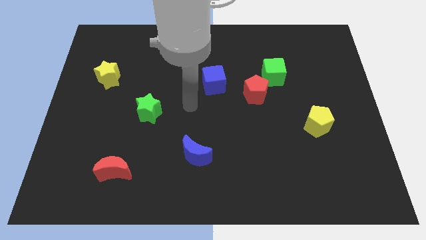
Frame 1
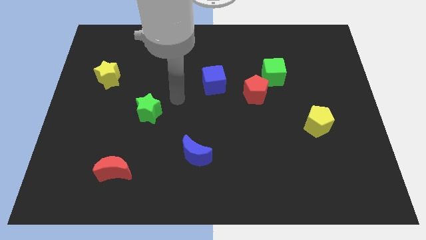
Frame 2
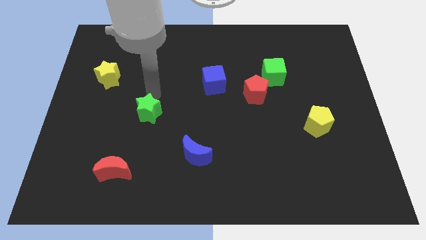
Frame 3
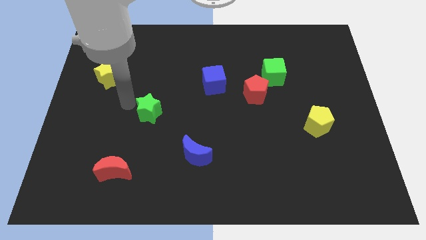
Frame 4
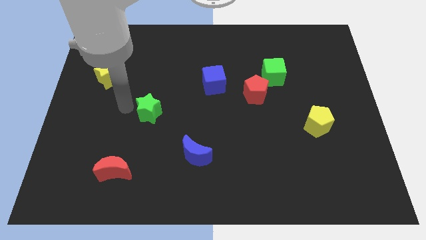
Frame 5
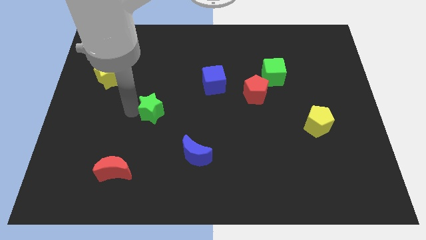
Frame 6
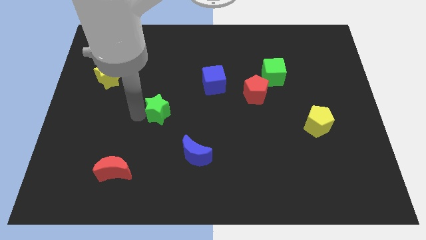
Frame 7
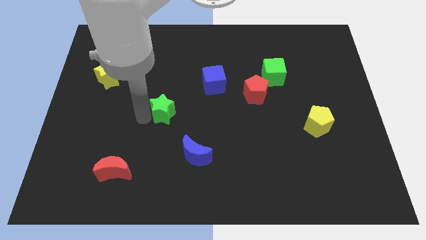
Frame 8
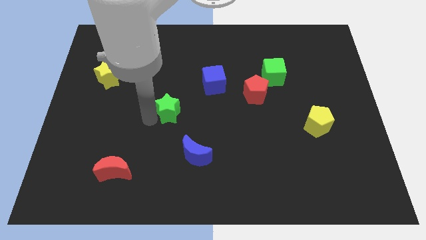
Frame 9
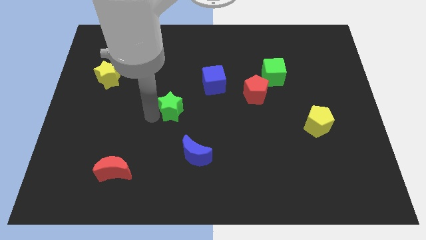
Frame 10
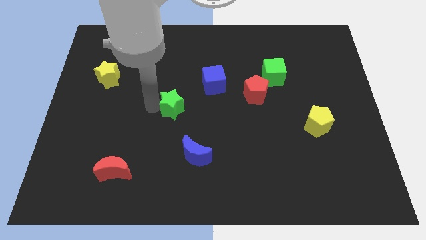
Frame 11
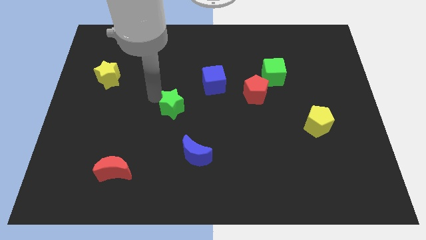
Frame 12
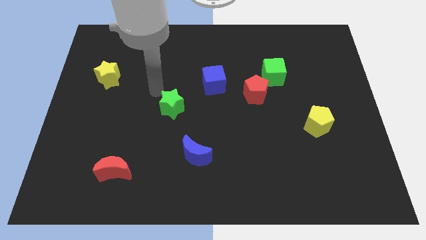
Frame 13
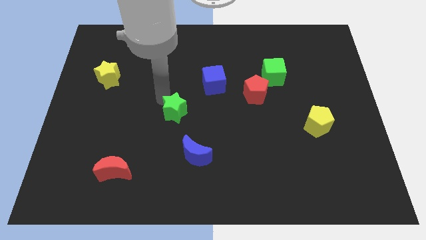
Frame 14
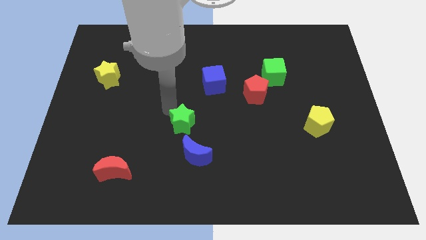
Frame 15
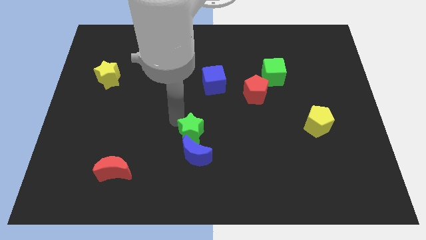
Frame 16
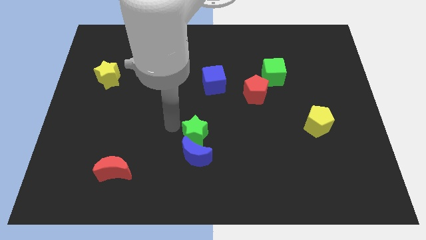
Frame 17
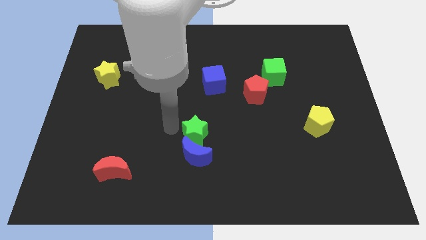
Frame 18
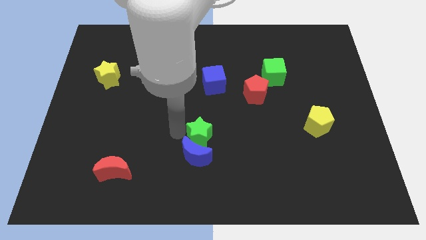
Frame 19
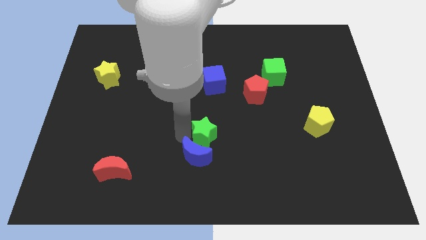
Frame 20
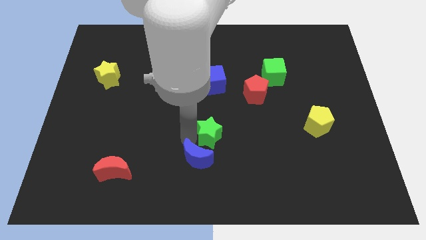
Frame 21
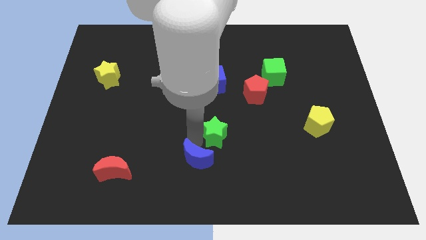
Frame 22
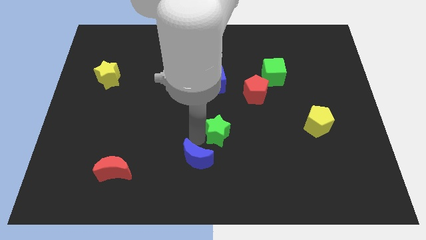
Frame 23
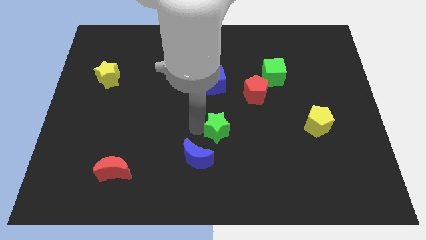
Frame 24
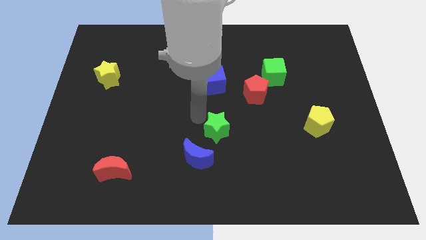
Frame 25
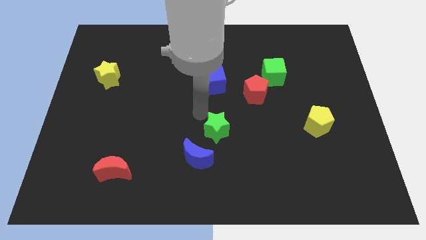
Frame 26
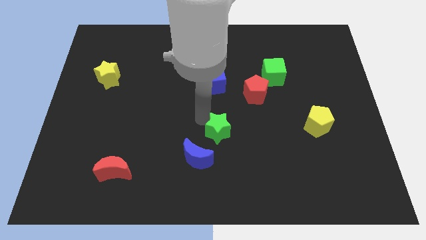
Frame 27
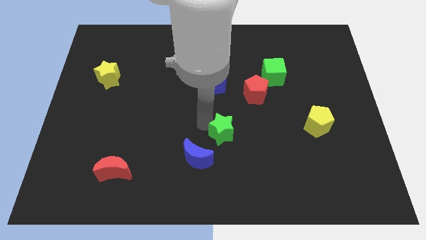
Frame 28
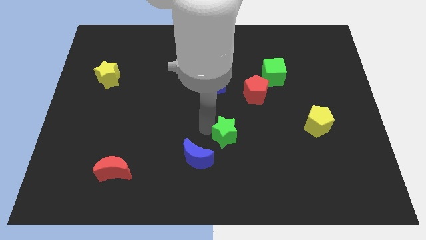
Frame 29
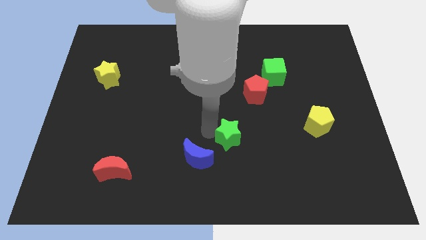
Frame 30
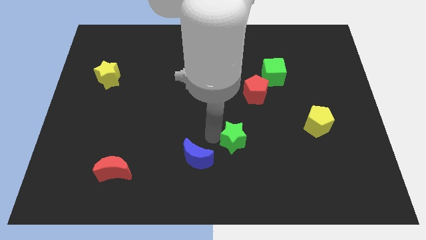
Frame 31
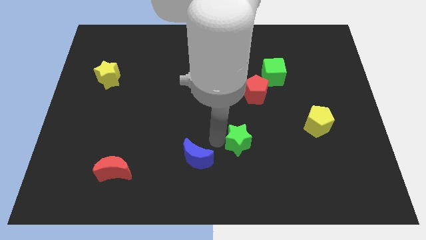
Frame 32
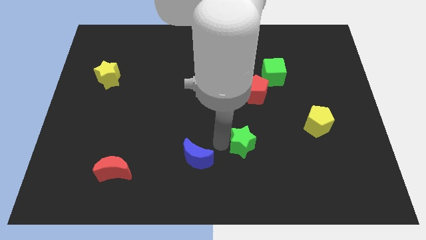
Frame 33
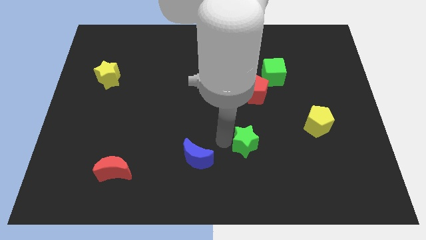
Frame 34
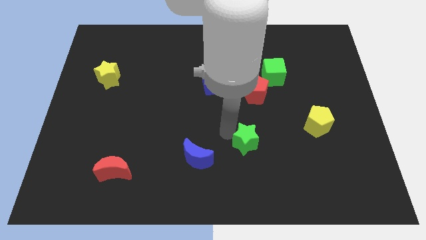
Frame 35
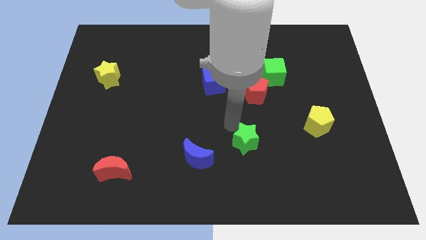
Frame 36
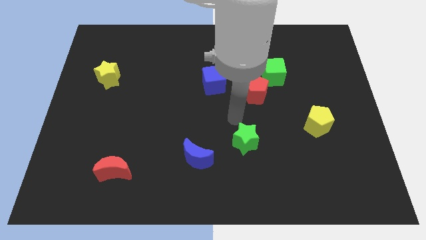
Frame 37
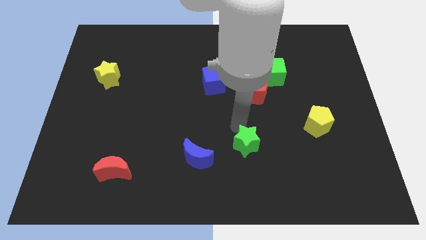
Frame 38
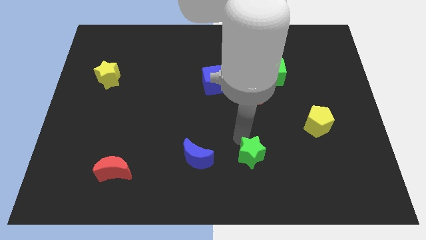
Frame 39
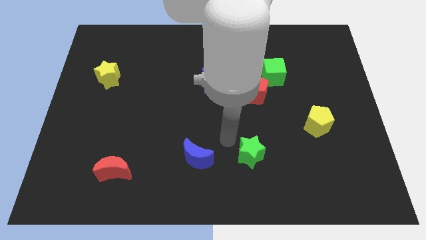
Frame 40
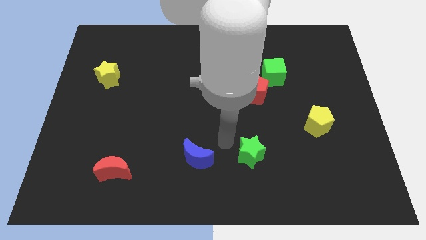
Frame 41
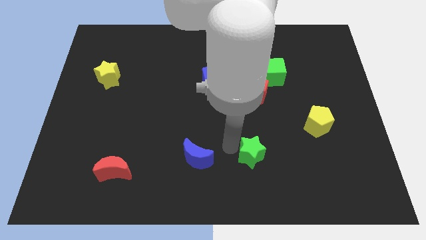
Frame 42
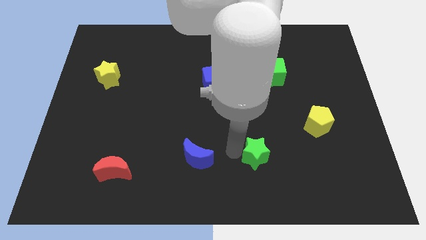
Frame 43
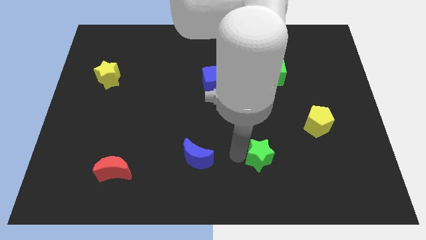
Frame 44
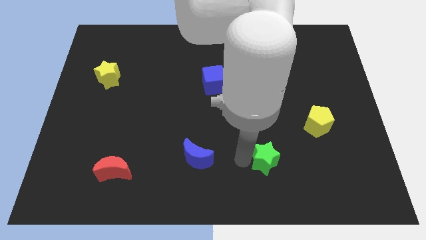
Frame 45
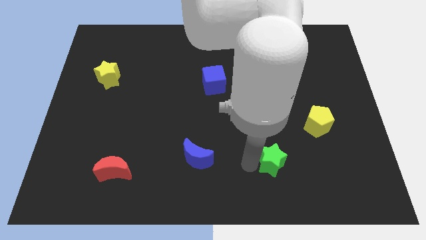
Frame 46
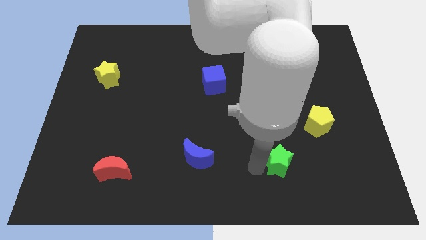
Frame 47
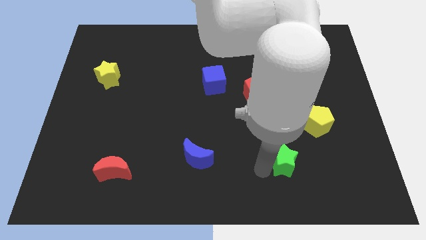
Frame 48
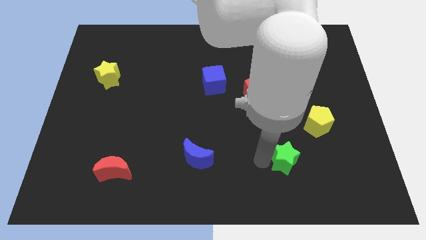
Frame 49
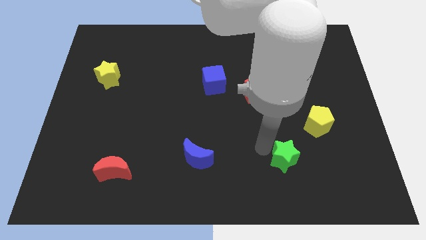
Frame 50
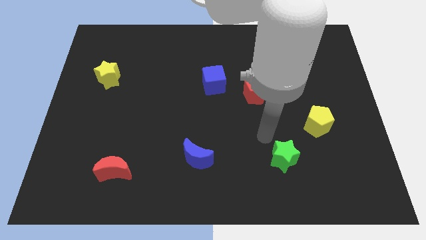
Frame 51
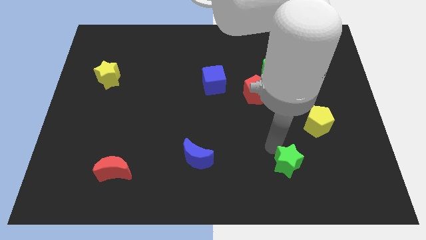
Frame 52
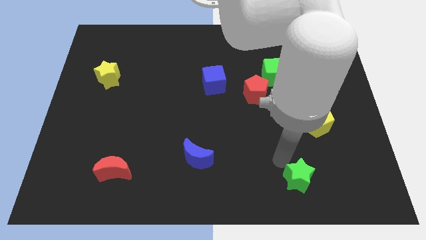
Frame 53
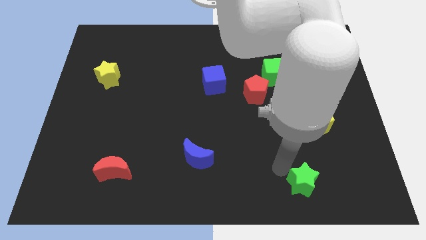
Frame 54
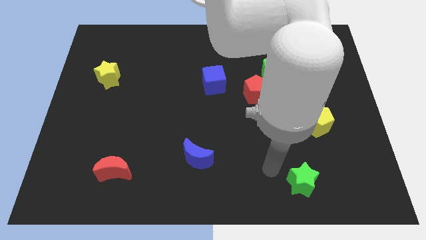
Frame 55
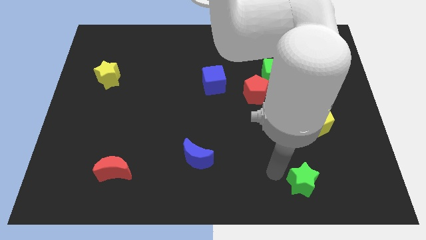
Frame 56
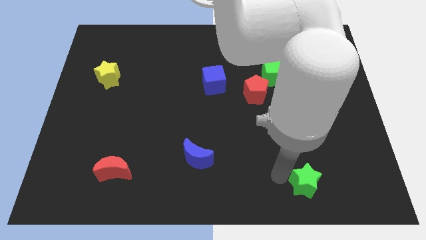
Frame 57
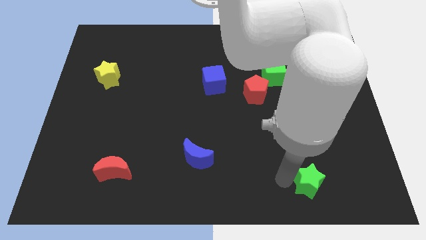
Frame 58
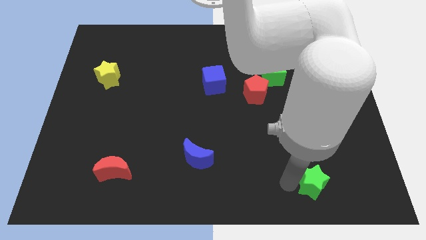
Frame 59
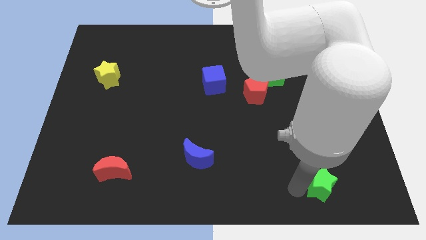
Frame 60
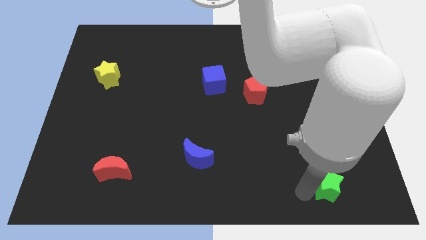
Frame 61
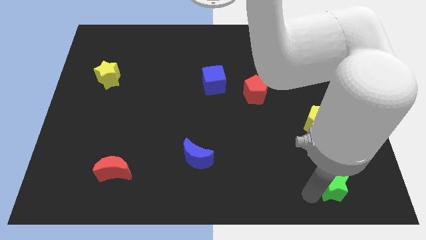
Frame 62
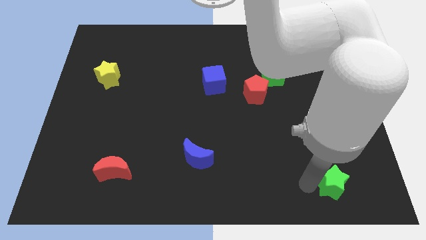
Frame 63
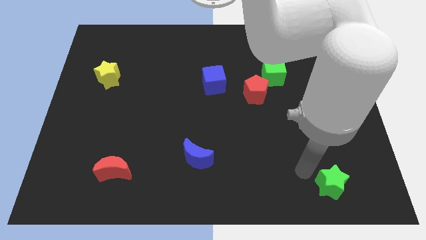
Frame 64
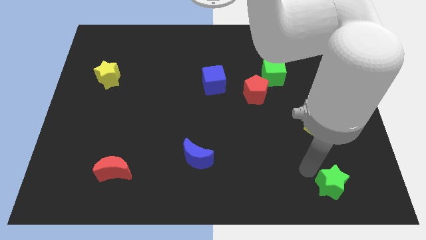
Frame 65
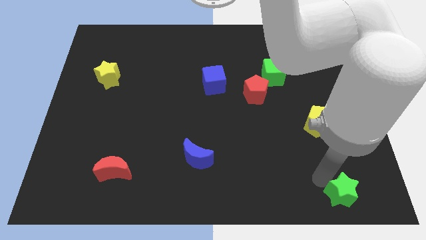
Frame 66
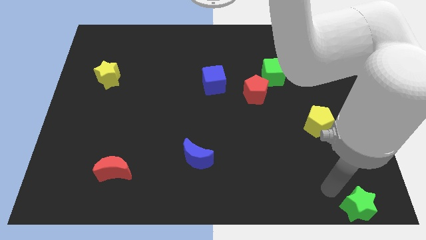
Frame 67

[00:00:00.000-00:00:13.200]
move the green star to the bottom right of the board
